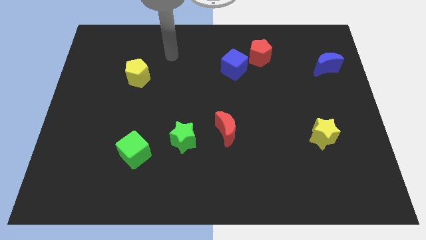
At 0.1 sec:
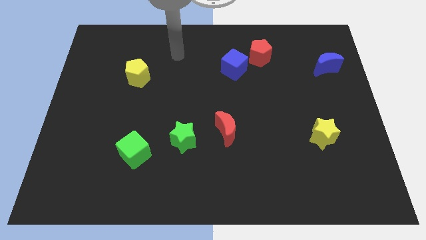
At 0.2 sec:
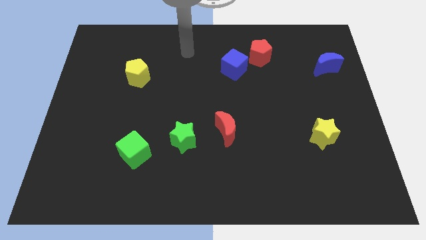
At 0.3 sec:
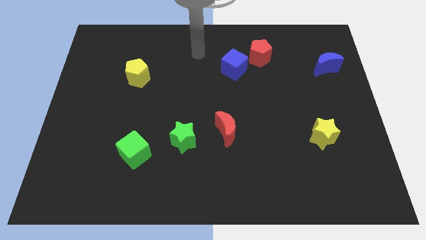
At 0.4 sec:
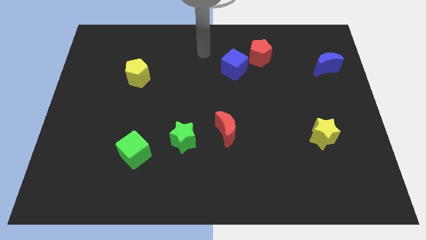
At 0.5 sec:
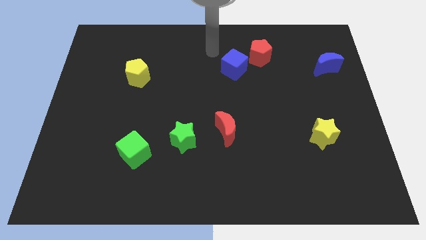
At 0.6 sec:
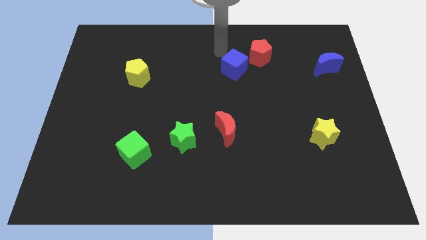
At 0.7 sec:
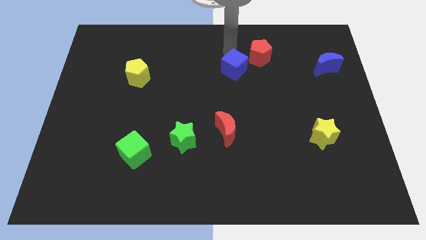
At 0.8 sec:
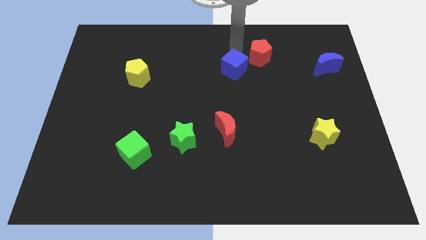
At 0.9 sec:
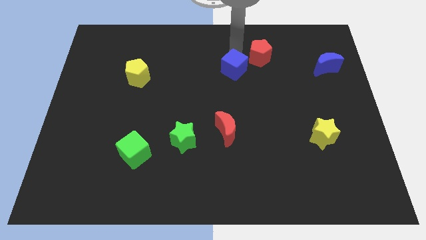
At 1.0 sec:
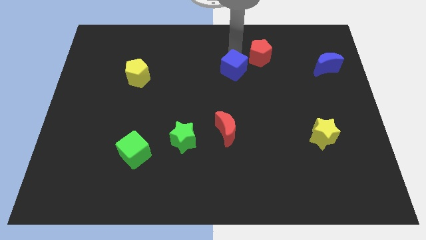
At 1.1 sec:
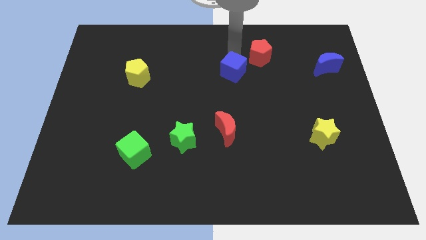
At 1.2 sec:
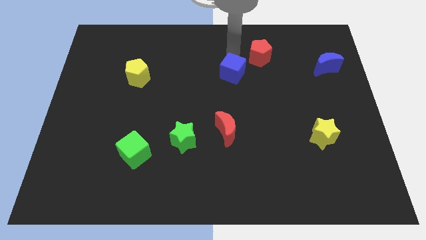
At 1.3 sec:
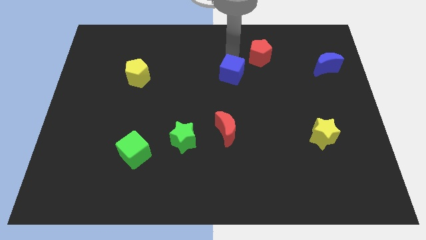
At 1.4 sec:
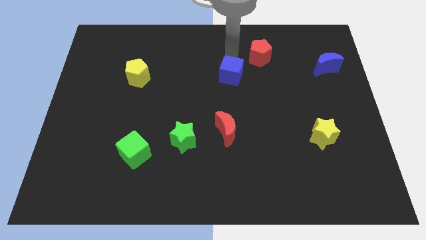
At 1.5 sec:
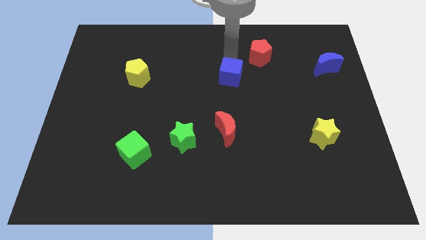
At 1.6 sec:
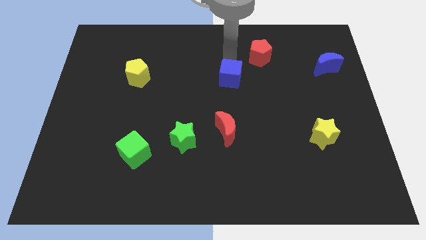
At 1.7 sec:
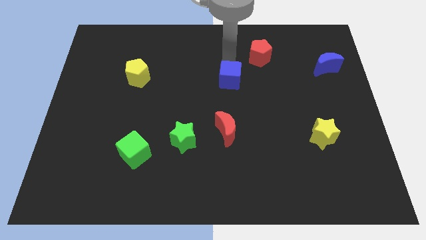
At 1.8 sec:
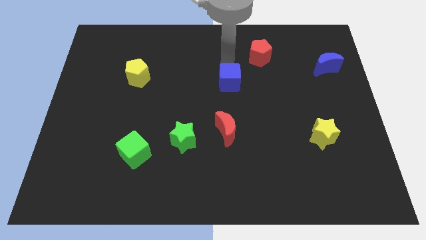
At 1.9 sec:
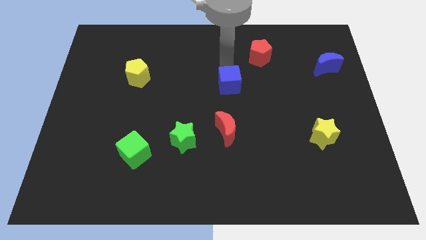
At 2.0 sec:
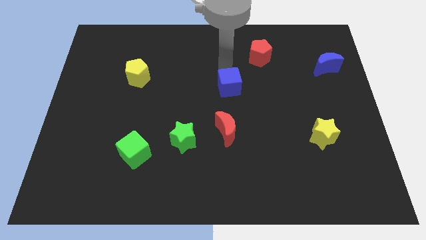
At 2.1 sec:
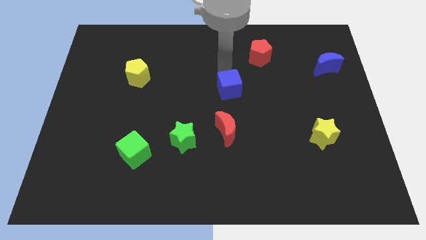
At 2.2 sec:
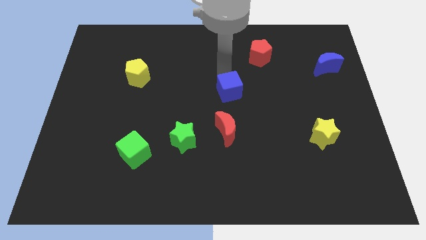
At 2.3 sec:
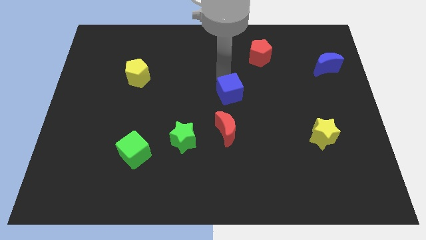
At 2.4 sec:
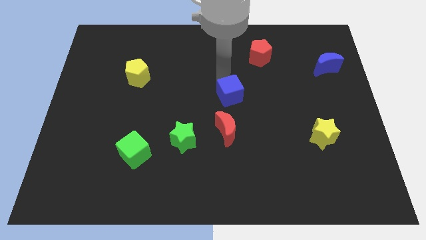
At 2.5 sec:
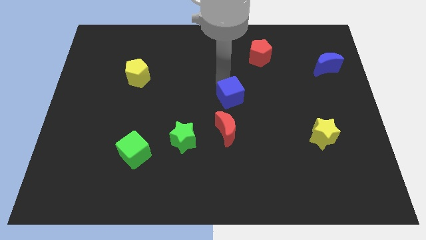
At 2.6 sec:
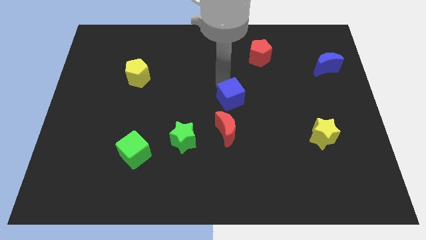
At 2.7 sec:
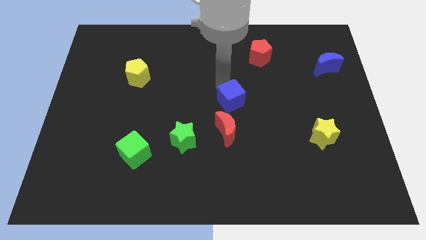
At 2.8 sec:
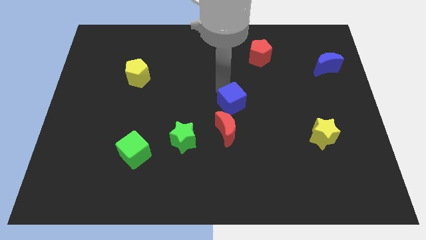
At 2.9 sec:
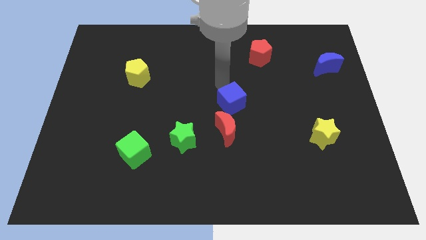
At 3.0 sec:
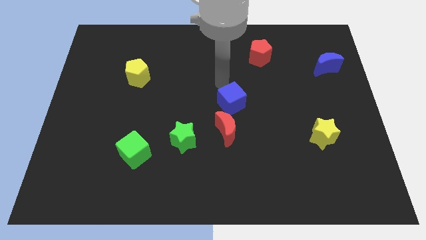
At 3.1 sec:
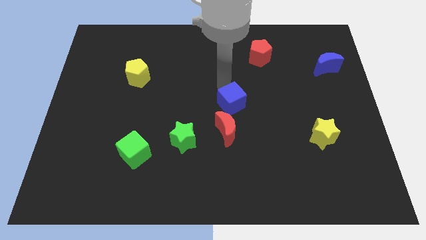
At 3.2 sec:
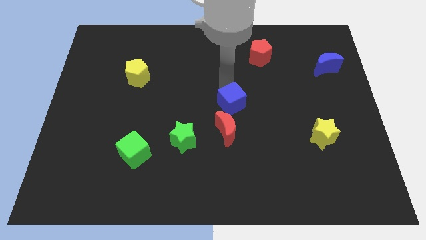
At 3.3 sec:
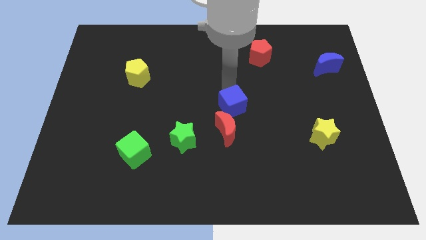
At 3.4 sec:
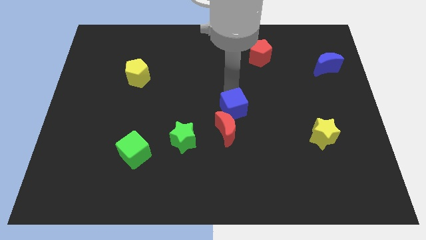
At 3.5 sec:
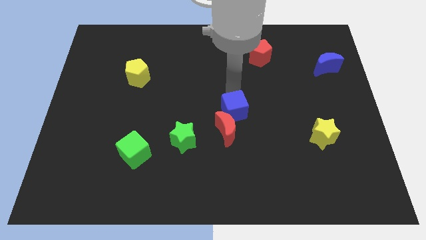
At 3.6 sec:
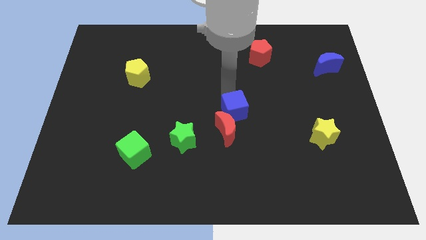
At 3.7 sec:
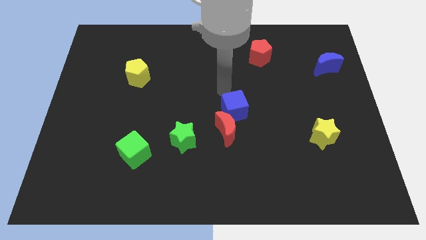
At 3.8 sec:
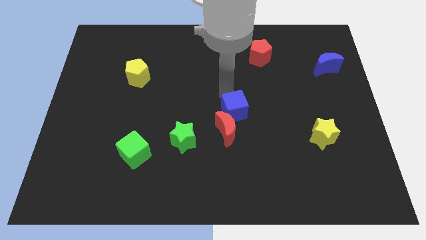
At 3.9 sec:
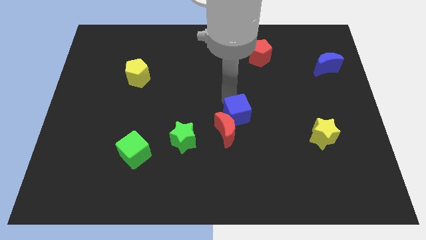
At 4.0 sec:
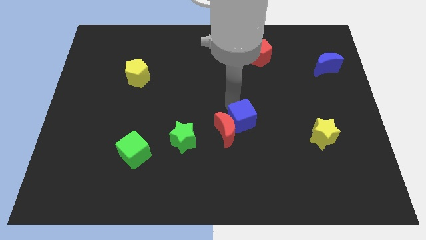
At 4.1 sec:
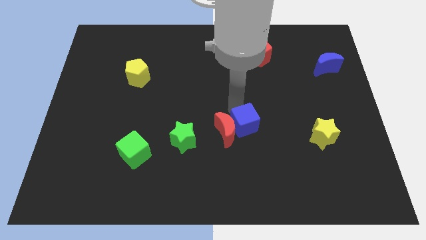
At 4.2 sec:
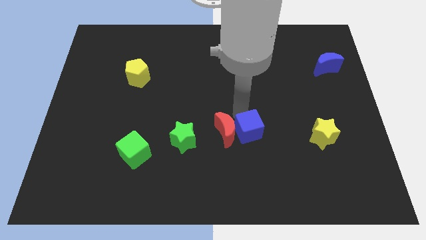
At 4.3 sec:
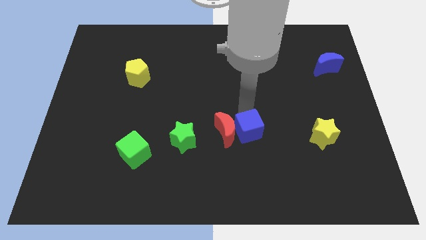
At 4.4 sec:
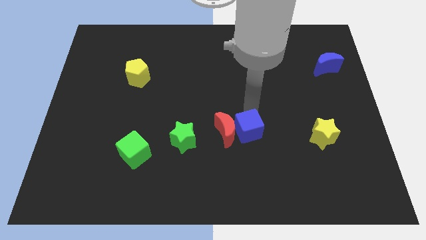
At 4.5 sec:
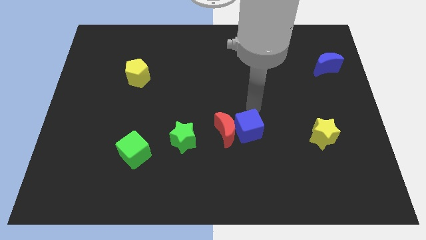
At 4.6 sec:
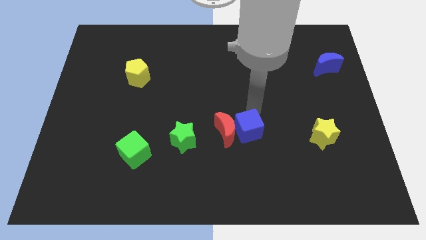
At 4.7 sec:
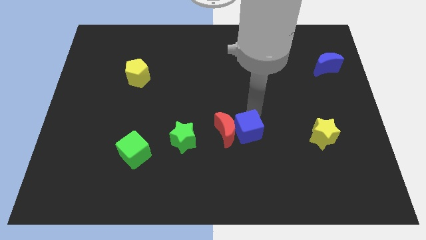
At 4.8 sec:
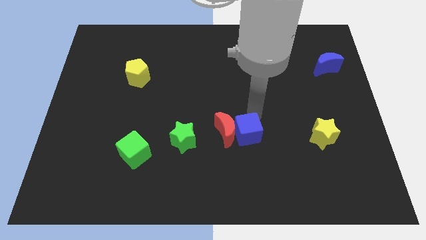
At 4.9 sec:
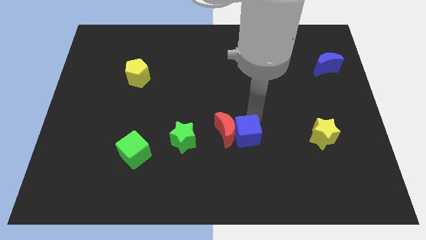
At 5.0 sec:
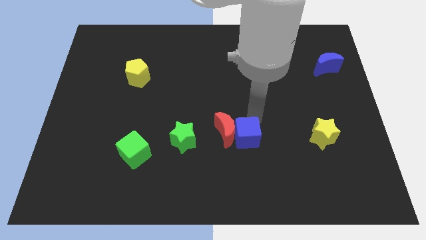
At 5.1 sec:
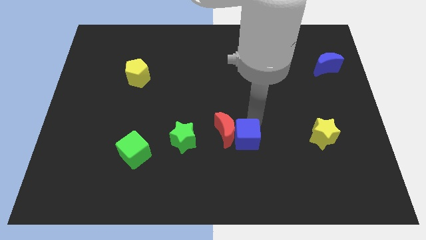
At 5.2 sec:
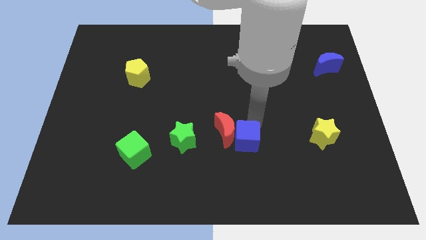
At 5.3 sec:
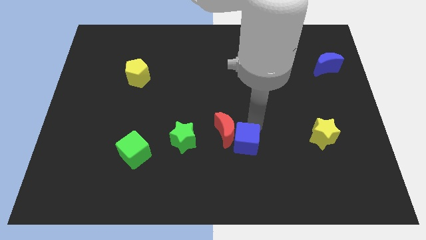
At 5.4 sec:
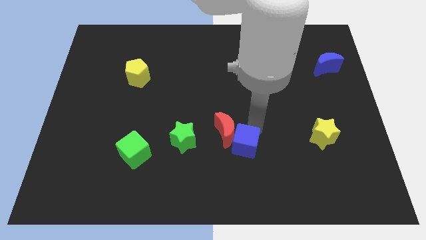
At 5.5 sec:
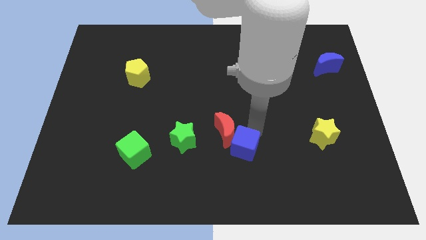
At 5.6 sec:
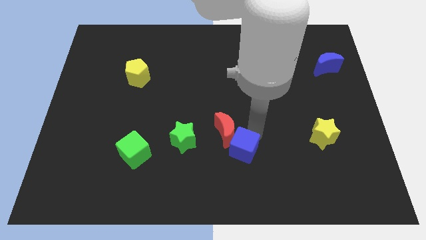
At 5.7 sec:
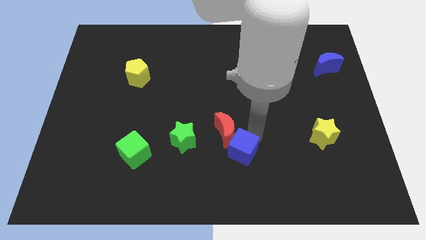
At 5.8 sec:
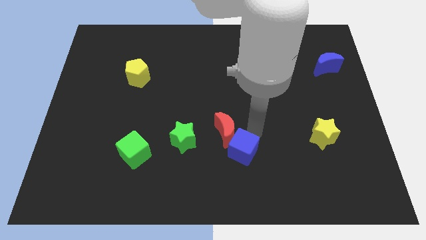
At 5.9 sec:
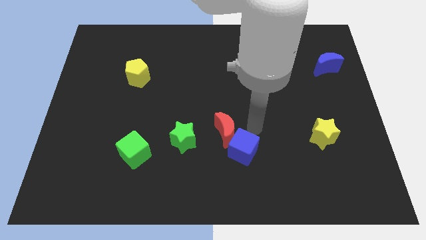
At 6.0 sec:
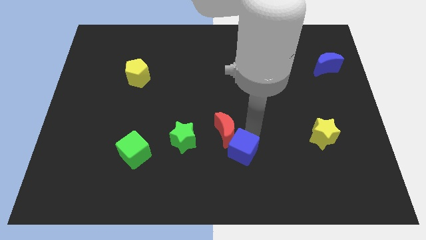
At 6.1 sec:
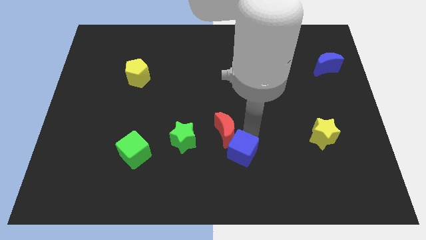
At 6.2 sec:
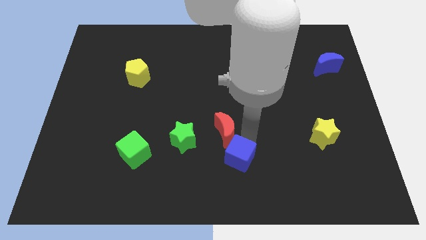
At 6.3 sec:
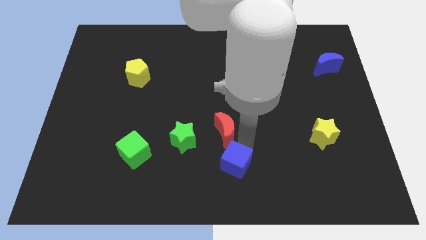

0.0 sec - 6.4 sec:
slide the blue cube to the bottom
